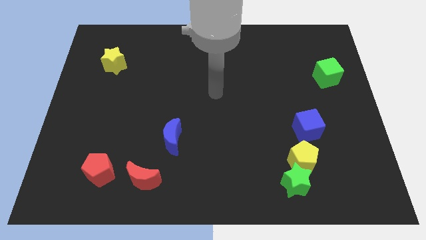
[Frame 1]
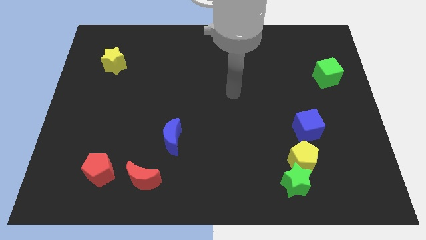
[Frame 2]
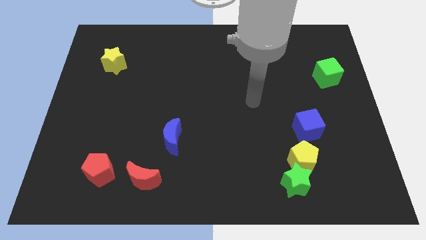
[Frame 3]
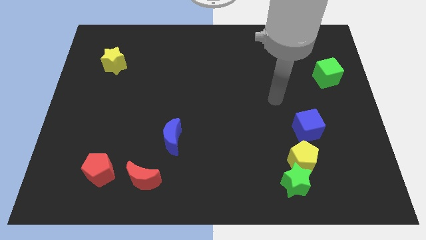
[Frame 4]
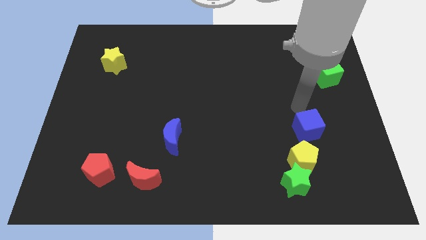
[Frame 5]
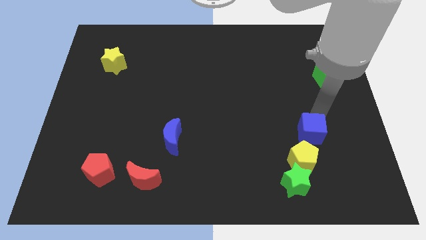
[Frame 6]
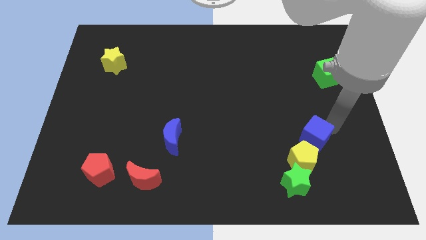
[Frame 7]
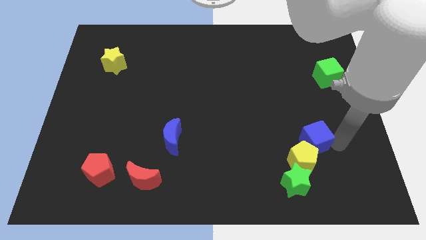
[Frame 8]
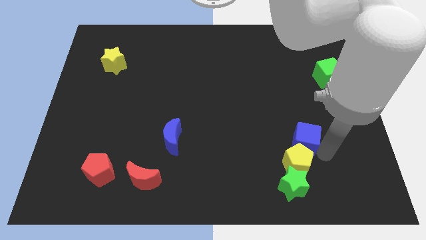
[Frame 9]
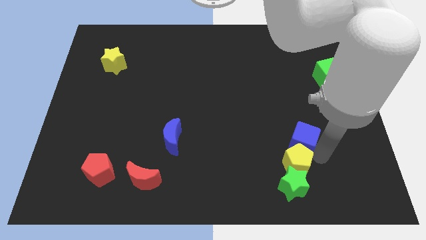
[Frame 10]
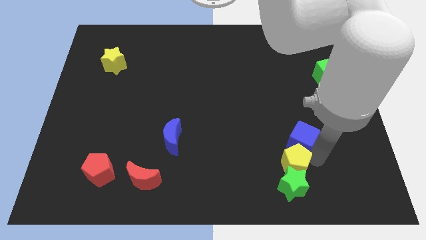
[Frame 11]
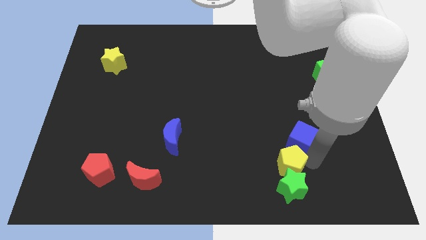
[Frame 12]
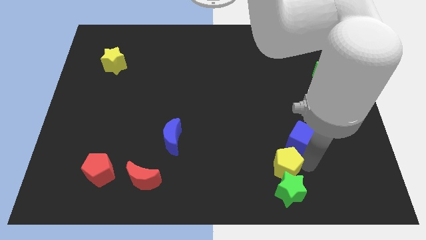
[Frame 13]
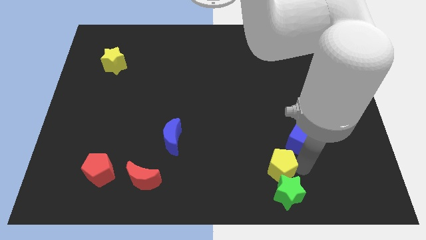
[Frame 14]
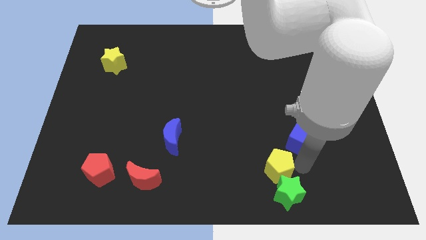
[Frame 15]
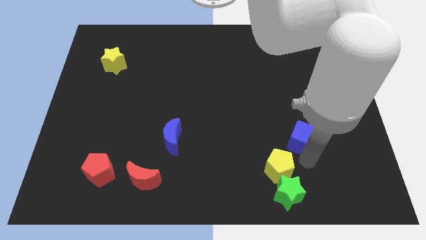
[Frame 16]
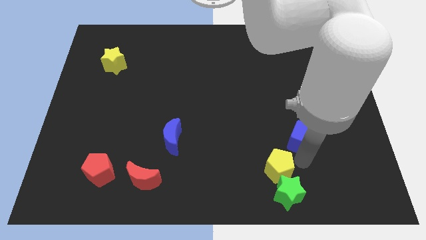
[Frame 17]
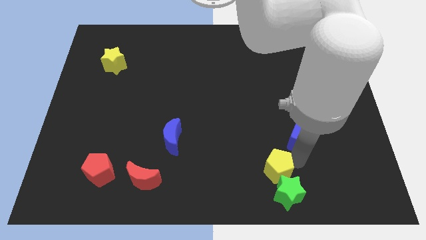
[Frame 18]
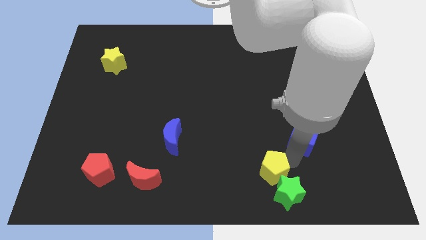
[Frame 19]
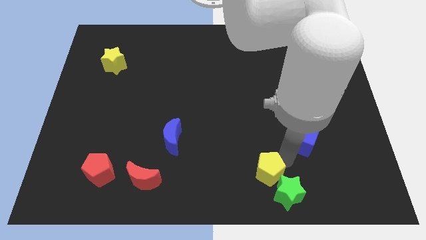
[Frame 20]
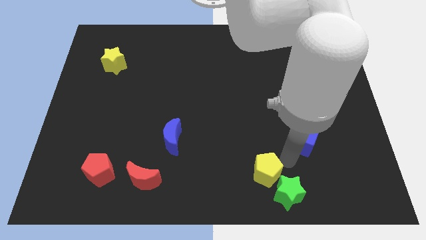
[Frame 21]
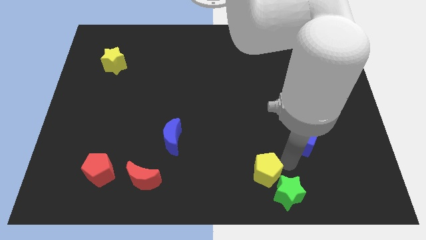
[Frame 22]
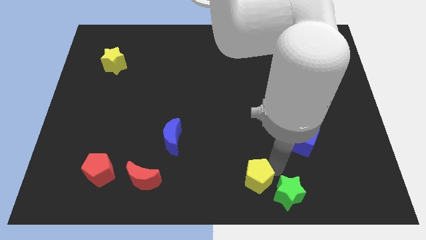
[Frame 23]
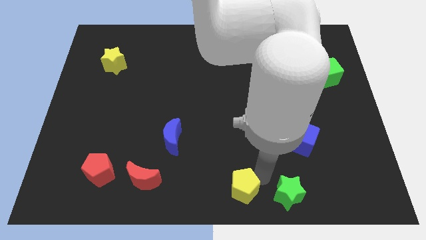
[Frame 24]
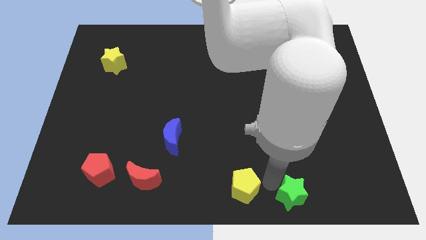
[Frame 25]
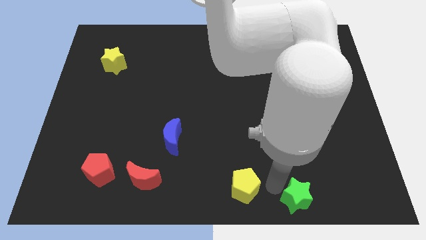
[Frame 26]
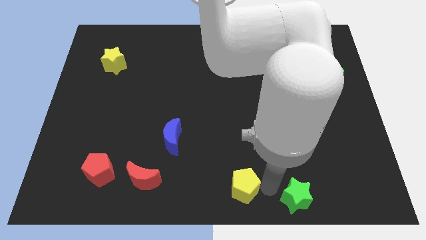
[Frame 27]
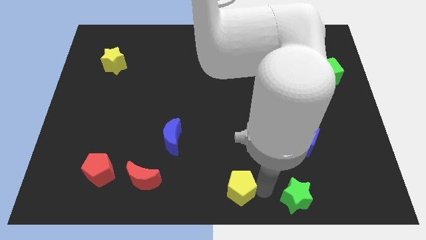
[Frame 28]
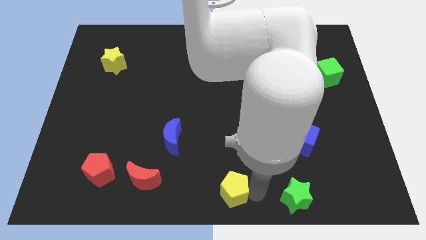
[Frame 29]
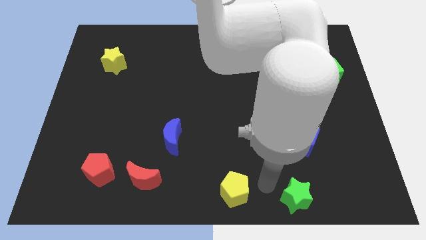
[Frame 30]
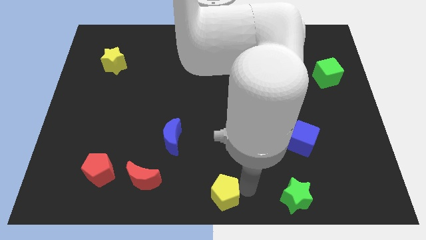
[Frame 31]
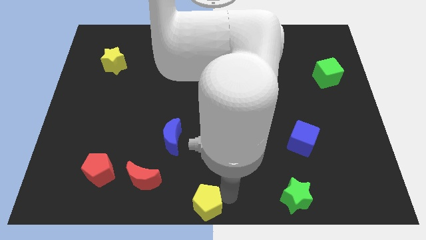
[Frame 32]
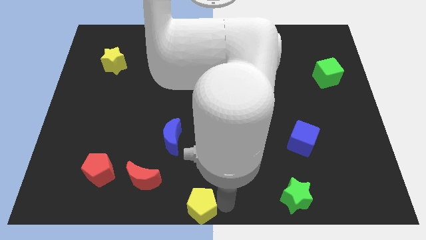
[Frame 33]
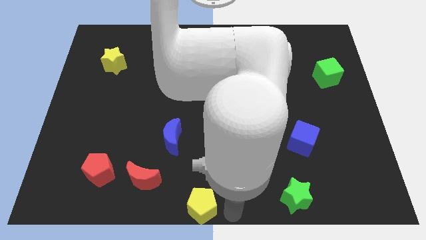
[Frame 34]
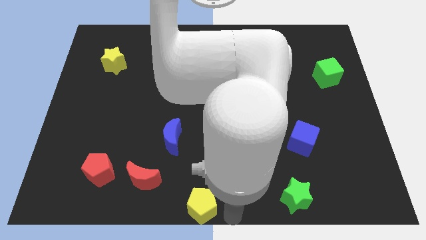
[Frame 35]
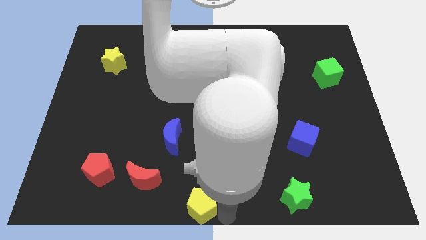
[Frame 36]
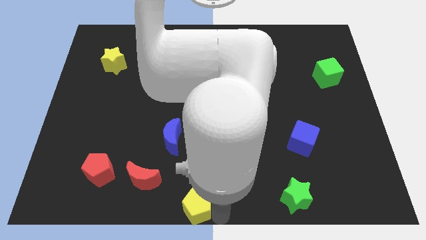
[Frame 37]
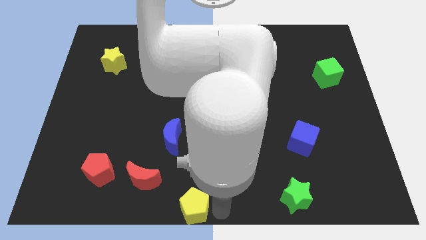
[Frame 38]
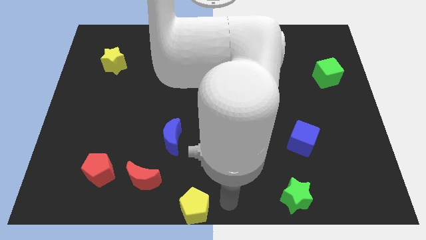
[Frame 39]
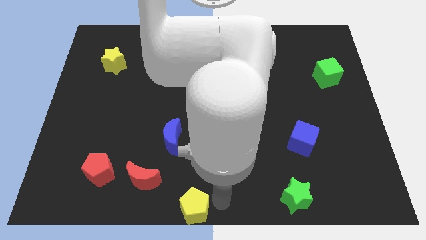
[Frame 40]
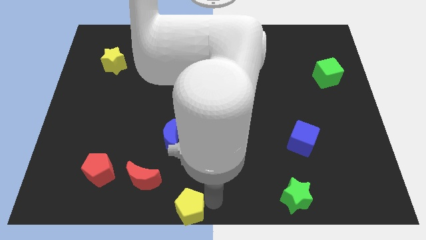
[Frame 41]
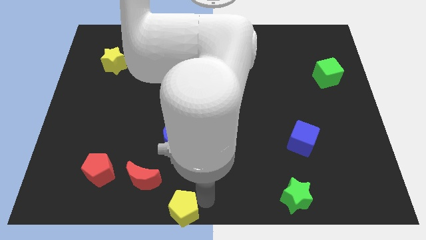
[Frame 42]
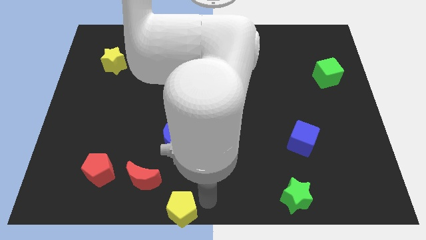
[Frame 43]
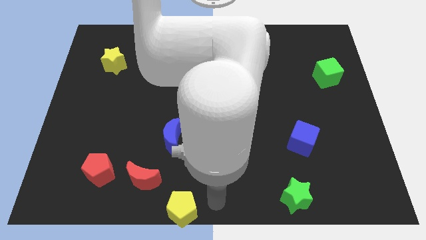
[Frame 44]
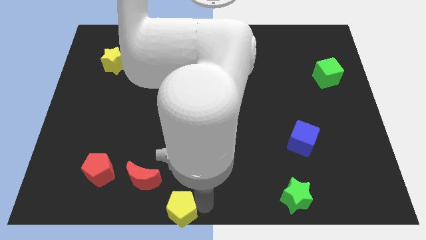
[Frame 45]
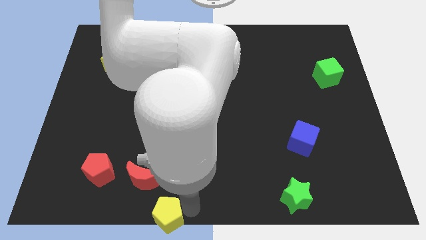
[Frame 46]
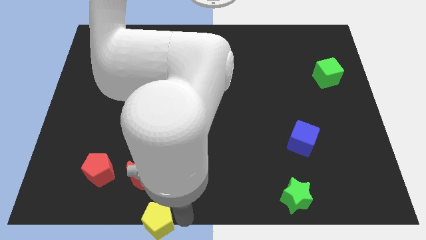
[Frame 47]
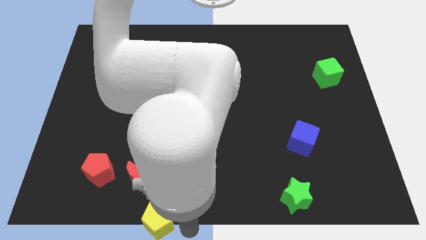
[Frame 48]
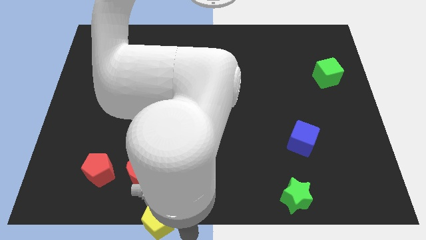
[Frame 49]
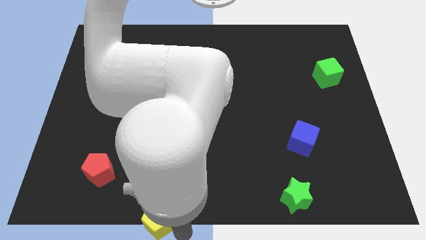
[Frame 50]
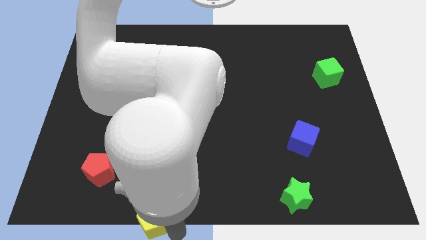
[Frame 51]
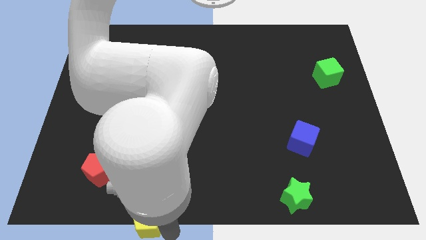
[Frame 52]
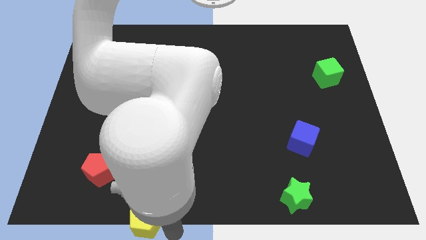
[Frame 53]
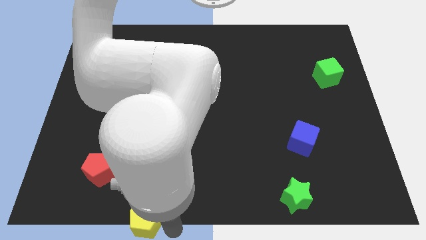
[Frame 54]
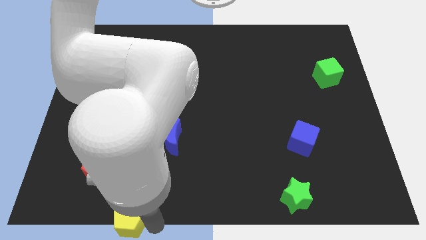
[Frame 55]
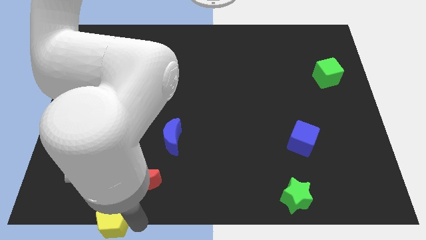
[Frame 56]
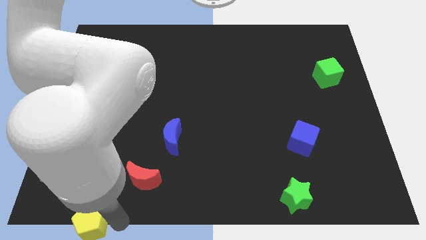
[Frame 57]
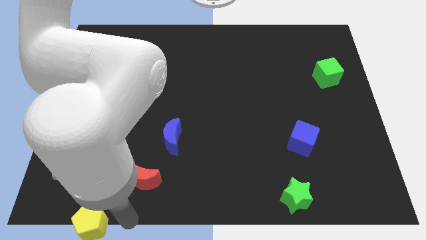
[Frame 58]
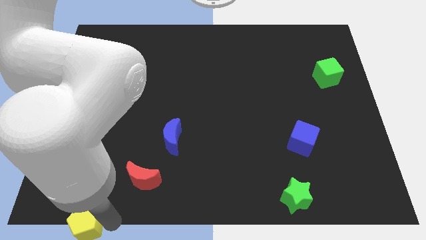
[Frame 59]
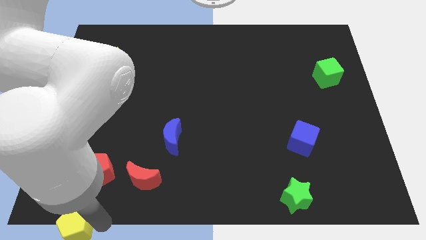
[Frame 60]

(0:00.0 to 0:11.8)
slide the yellow pentagon to the bottom left corner
